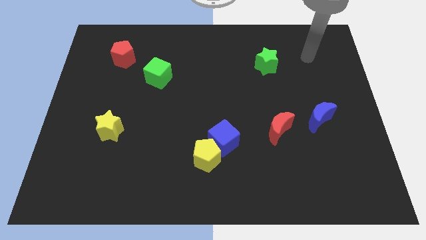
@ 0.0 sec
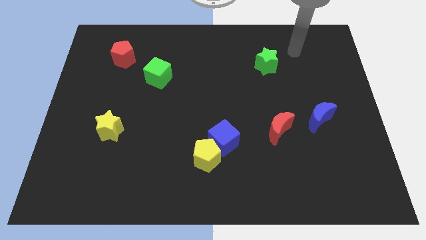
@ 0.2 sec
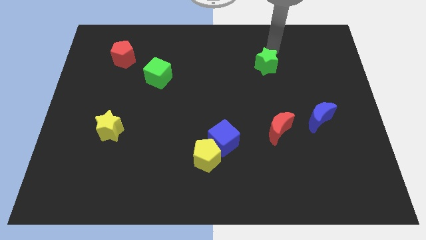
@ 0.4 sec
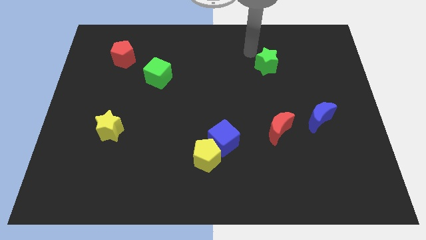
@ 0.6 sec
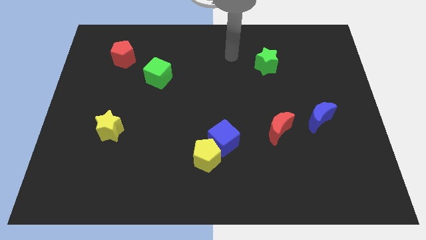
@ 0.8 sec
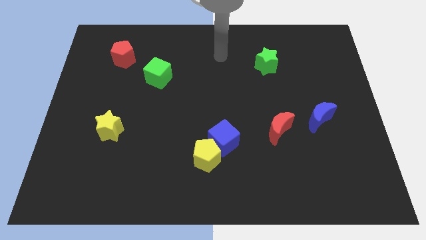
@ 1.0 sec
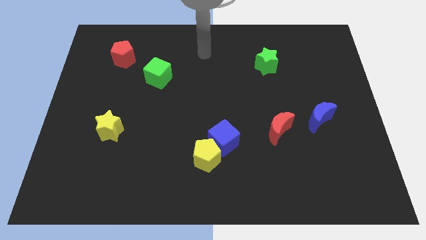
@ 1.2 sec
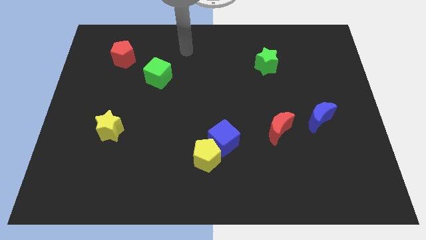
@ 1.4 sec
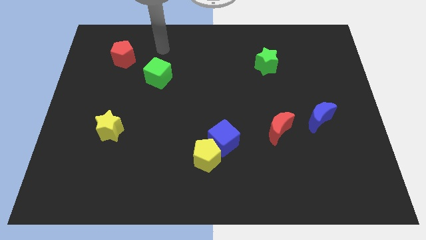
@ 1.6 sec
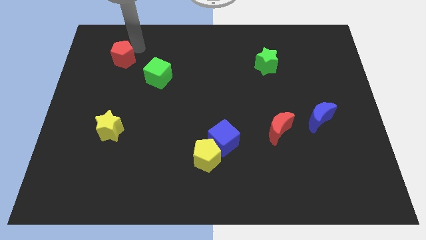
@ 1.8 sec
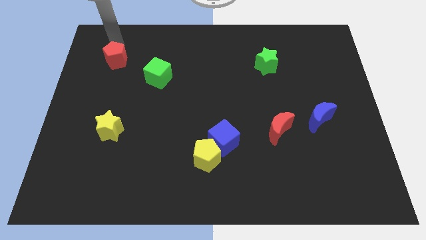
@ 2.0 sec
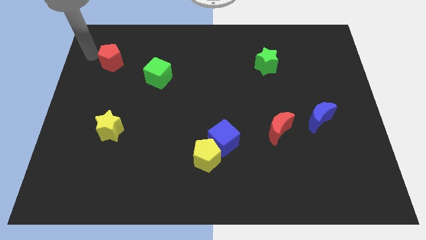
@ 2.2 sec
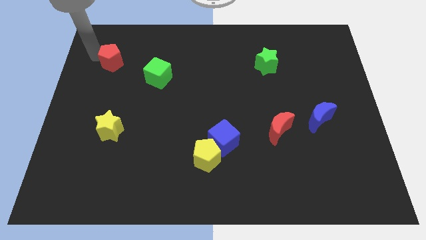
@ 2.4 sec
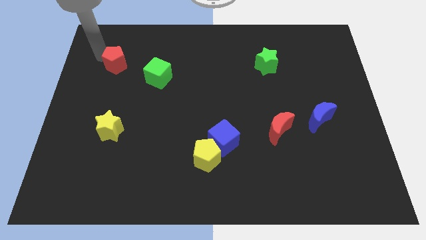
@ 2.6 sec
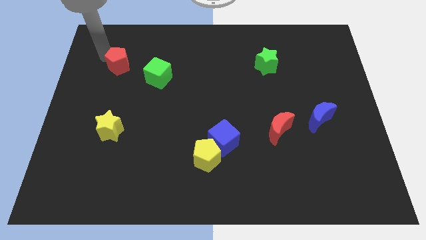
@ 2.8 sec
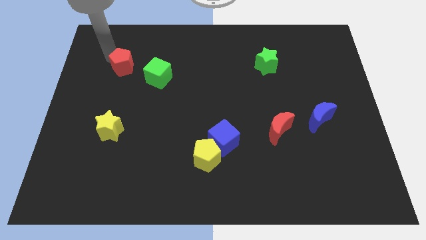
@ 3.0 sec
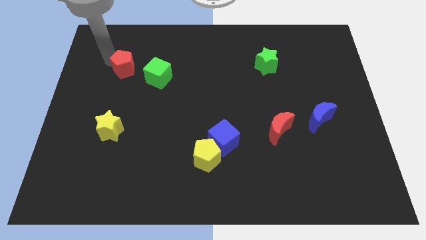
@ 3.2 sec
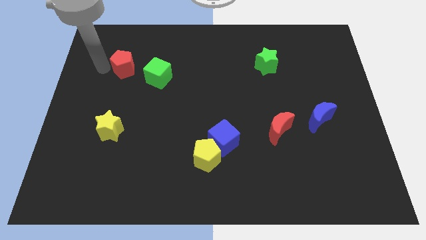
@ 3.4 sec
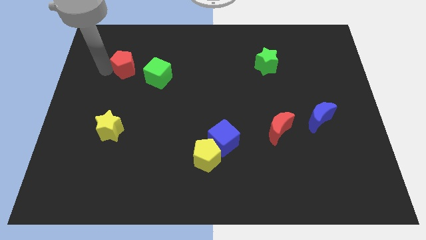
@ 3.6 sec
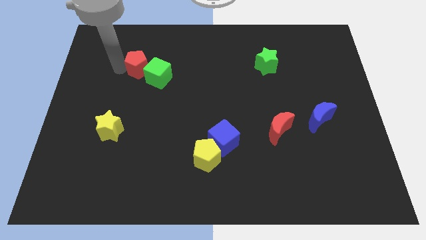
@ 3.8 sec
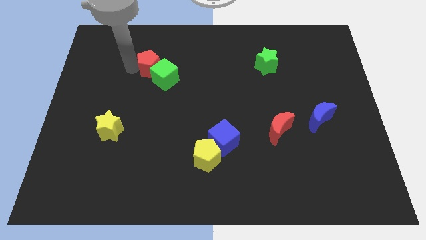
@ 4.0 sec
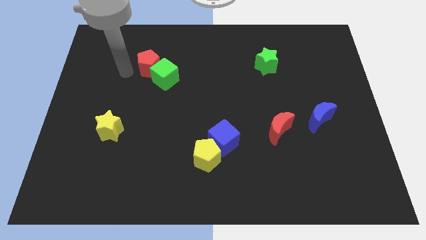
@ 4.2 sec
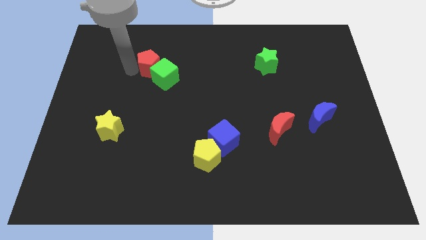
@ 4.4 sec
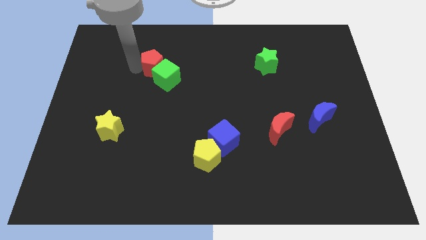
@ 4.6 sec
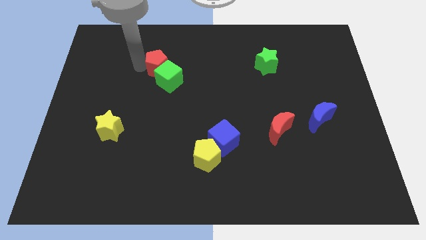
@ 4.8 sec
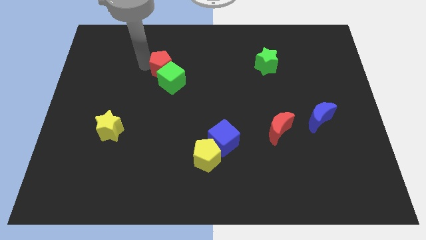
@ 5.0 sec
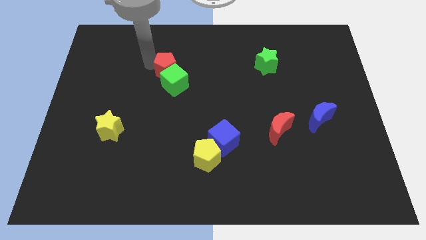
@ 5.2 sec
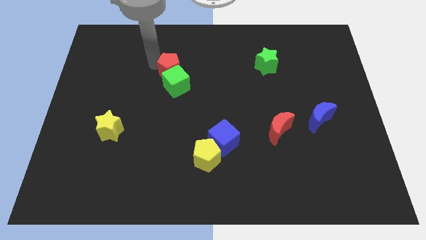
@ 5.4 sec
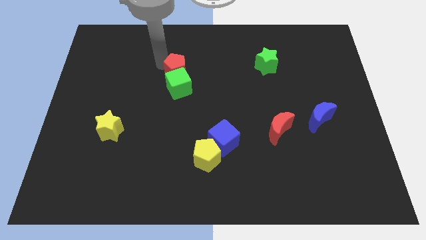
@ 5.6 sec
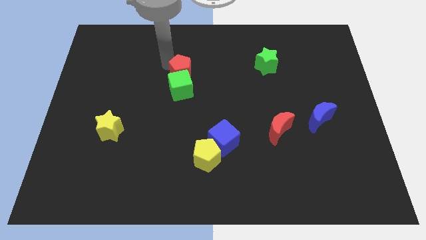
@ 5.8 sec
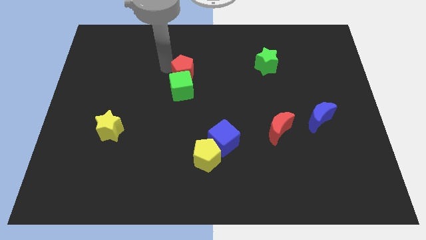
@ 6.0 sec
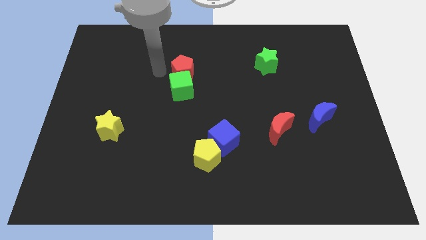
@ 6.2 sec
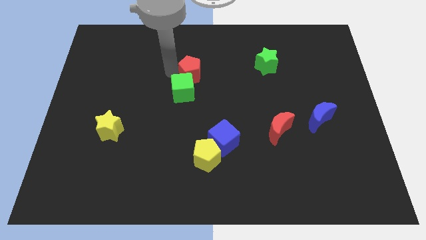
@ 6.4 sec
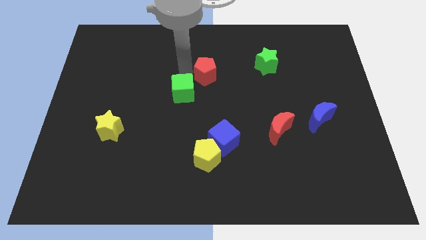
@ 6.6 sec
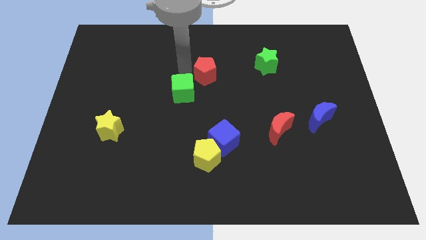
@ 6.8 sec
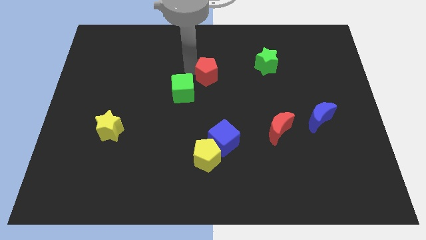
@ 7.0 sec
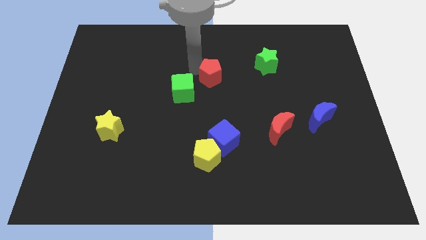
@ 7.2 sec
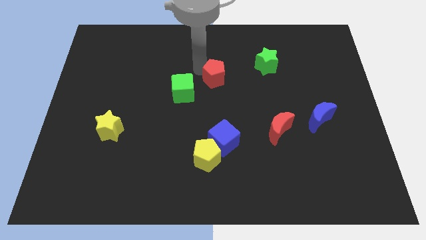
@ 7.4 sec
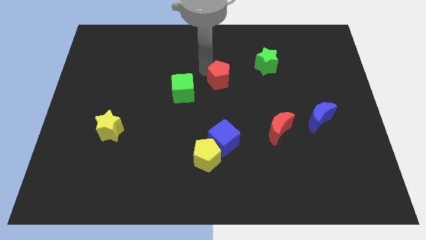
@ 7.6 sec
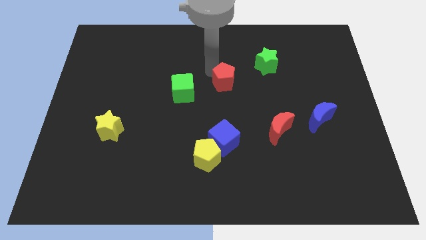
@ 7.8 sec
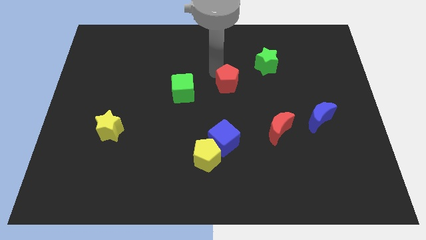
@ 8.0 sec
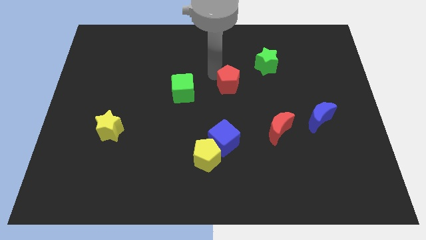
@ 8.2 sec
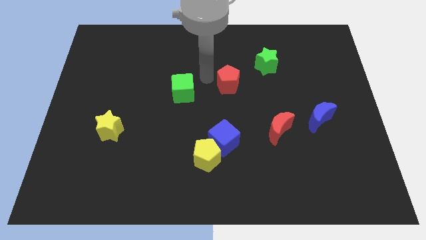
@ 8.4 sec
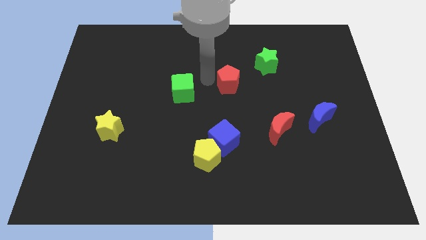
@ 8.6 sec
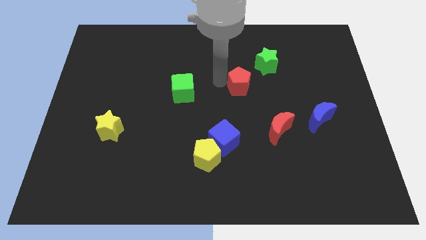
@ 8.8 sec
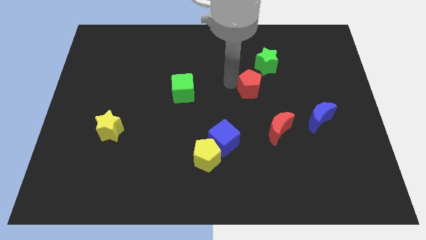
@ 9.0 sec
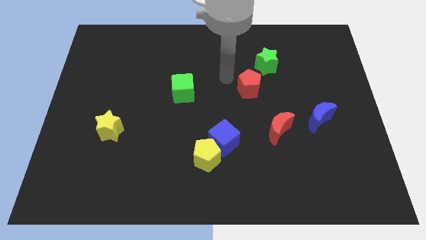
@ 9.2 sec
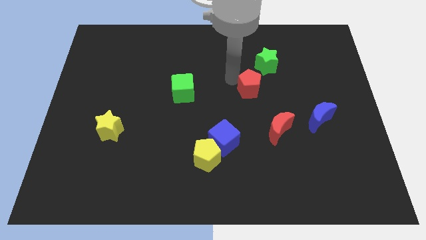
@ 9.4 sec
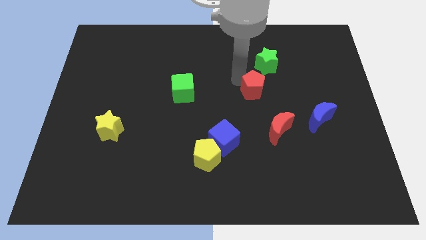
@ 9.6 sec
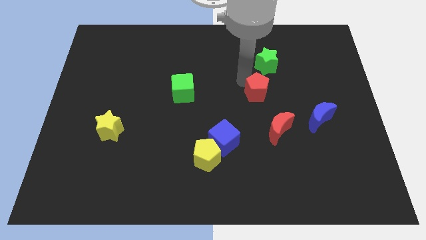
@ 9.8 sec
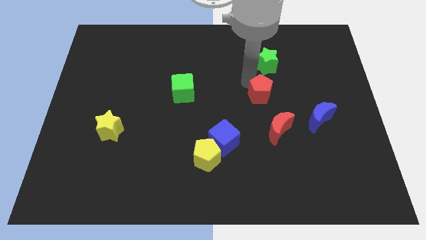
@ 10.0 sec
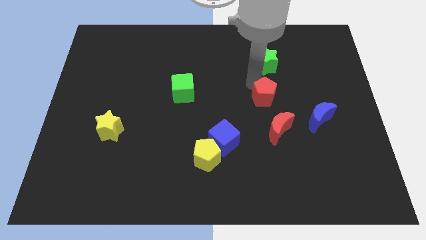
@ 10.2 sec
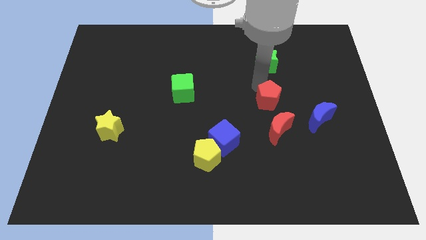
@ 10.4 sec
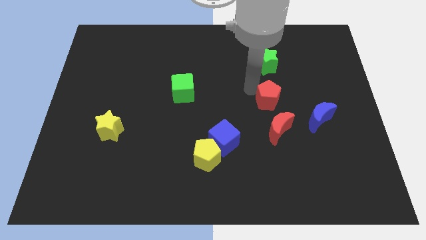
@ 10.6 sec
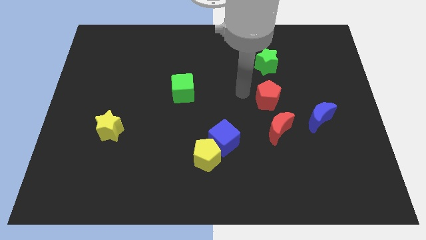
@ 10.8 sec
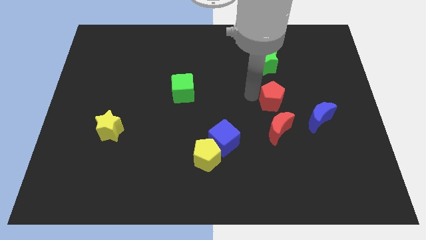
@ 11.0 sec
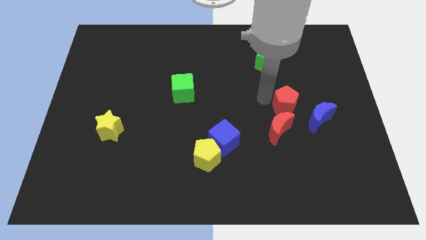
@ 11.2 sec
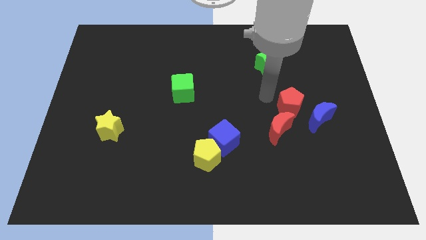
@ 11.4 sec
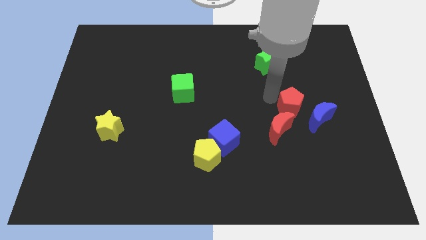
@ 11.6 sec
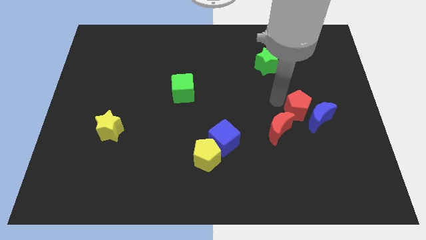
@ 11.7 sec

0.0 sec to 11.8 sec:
slide the red pentagon next to the blue moon

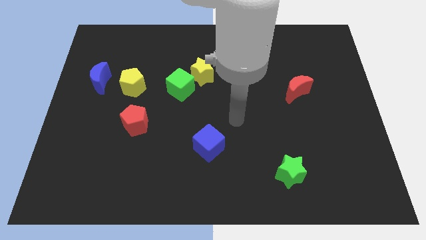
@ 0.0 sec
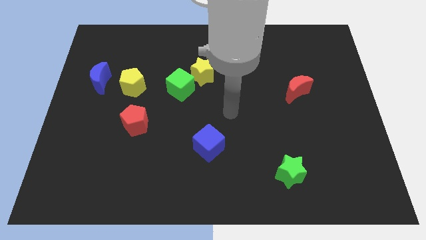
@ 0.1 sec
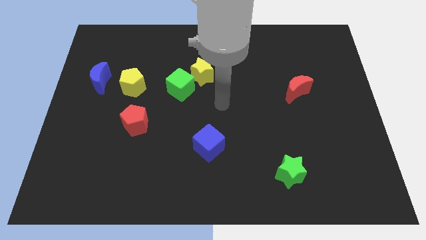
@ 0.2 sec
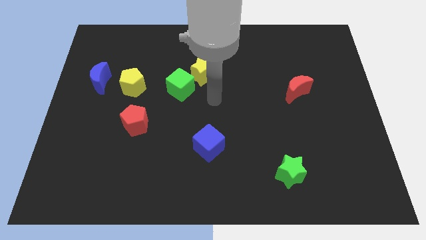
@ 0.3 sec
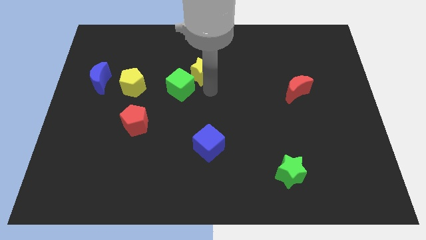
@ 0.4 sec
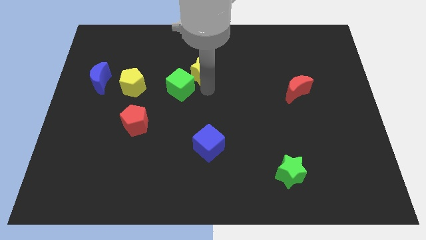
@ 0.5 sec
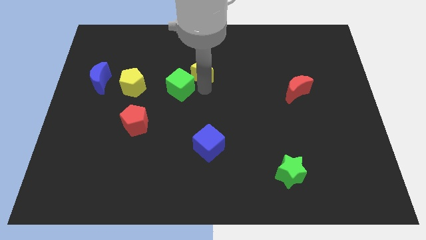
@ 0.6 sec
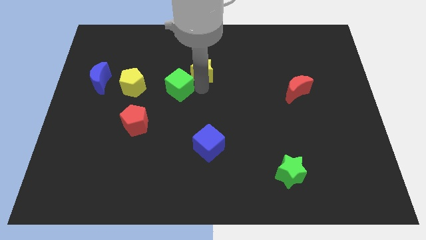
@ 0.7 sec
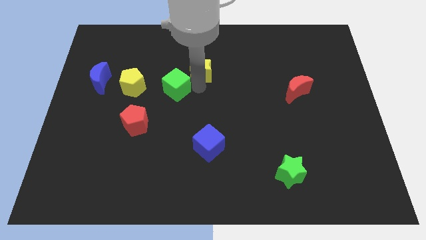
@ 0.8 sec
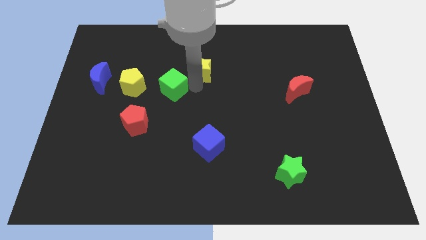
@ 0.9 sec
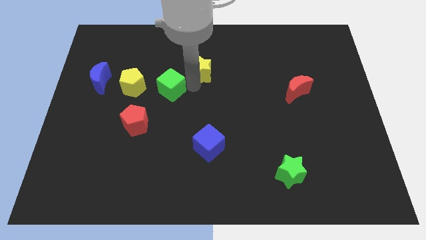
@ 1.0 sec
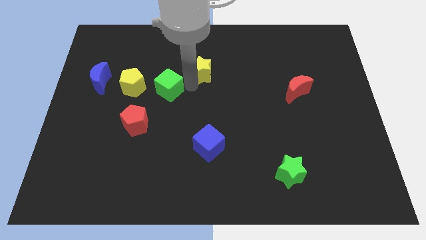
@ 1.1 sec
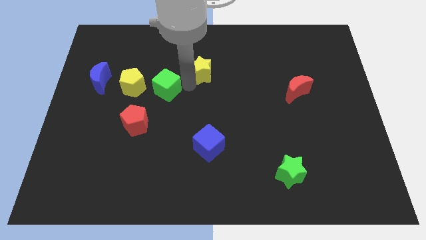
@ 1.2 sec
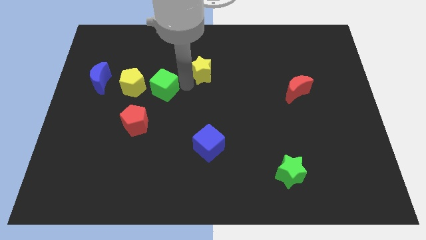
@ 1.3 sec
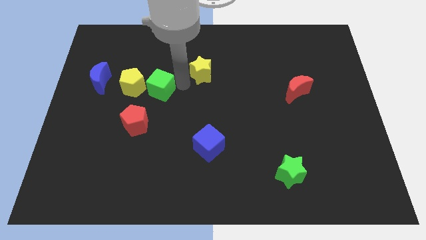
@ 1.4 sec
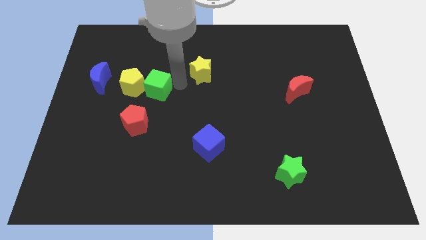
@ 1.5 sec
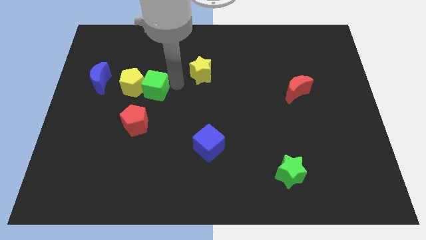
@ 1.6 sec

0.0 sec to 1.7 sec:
slide the green cube towards the yellow pentagon
